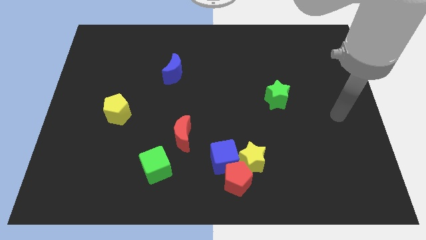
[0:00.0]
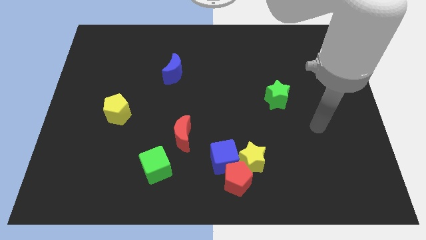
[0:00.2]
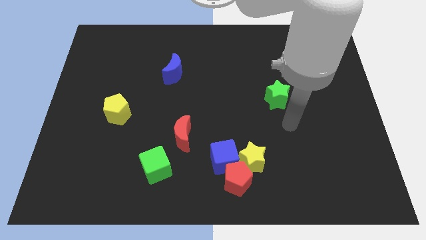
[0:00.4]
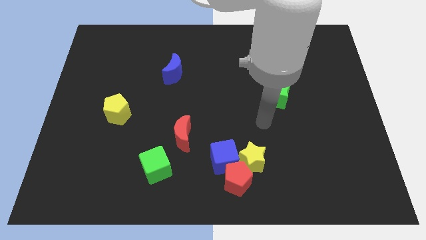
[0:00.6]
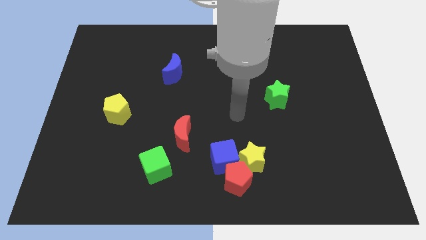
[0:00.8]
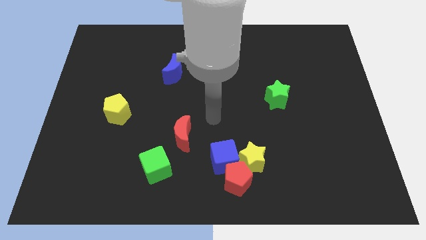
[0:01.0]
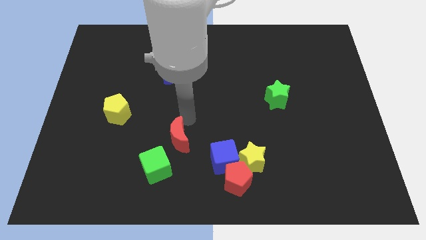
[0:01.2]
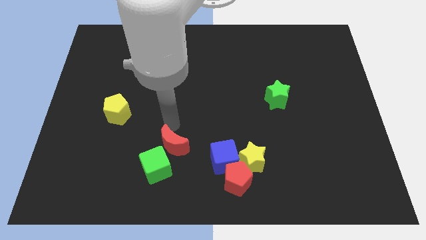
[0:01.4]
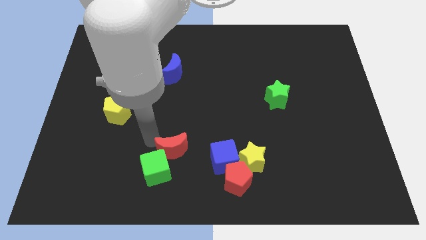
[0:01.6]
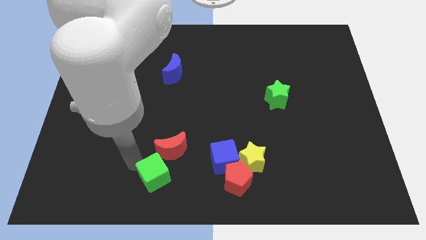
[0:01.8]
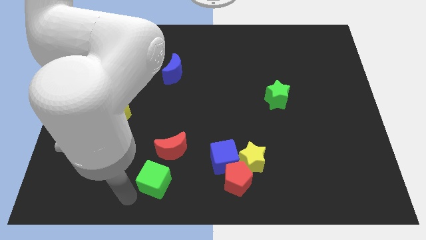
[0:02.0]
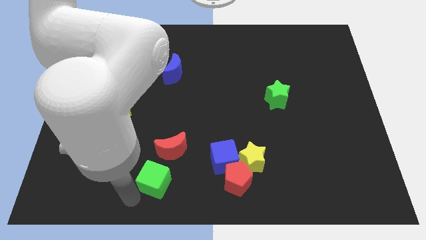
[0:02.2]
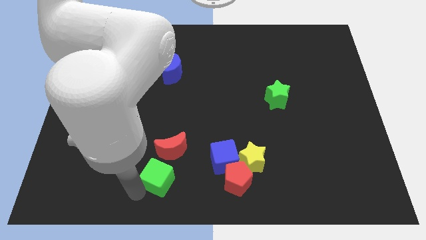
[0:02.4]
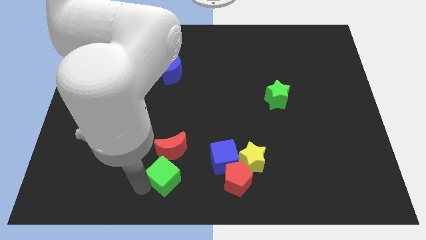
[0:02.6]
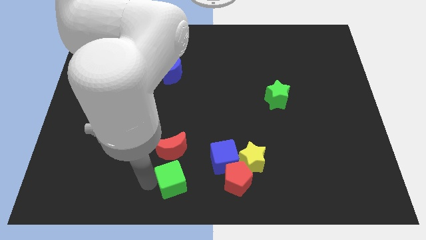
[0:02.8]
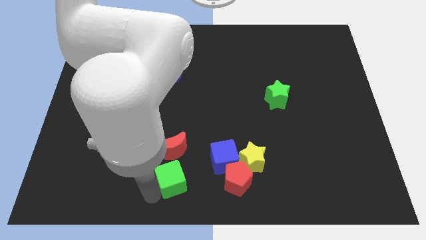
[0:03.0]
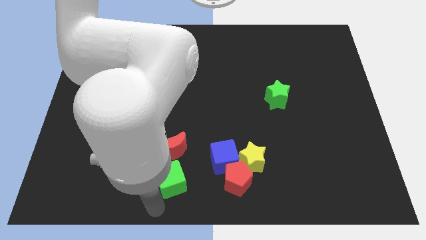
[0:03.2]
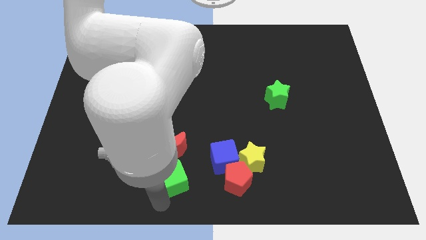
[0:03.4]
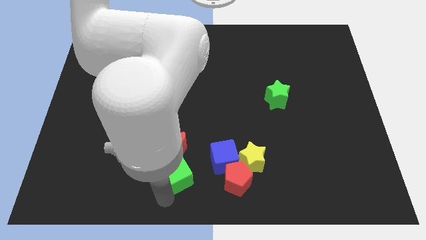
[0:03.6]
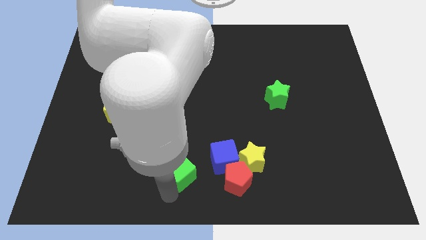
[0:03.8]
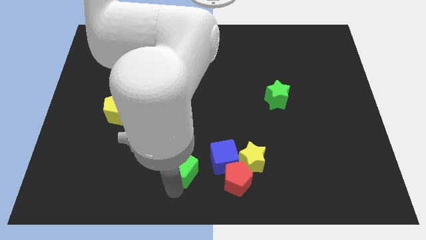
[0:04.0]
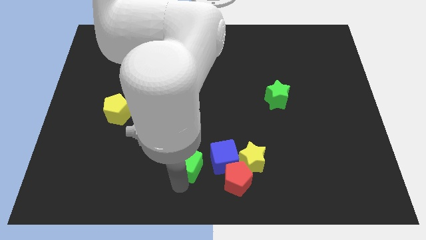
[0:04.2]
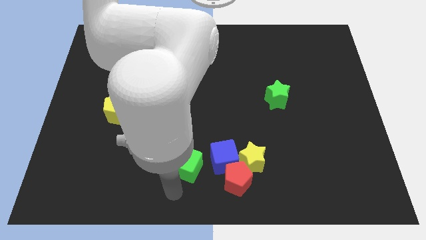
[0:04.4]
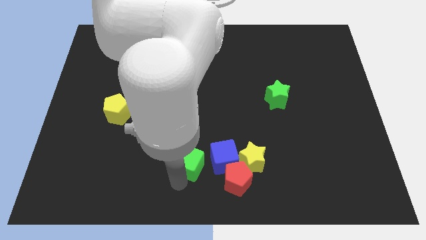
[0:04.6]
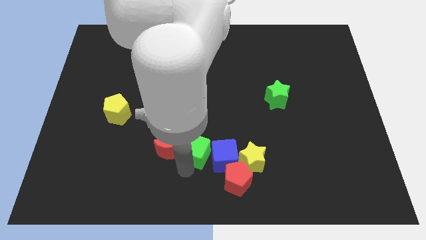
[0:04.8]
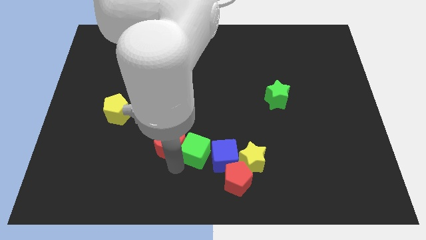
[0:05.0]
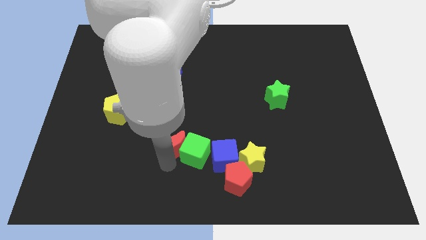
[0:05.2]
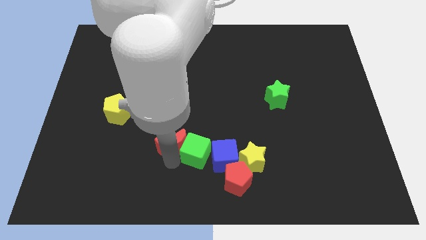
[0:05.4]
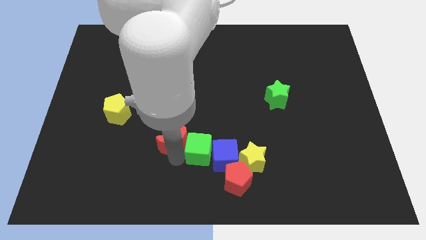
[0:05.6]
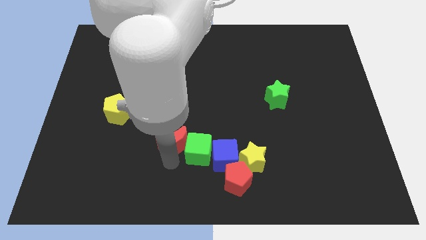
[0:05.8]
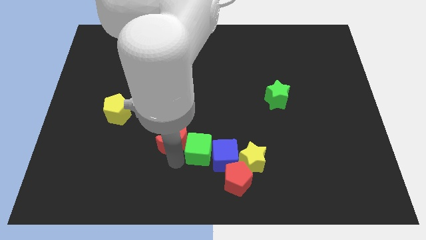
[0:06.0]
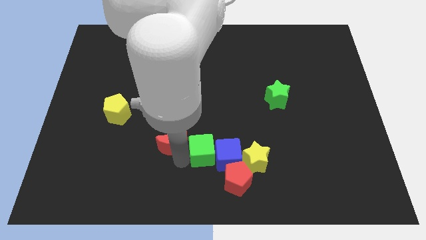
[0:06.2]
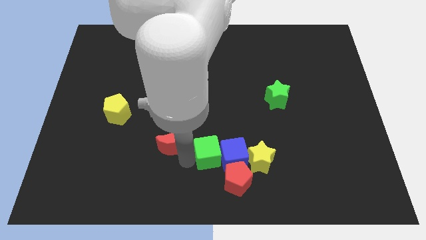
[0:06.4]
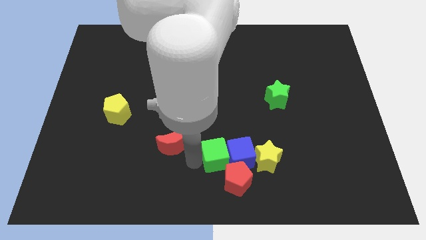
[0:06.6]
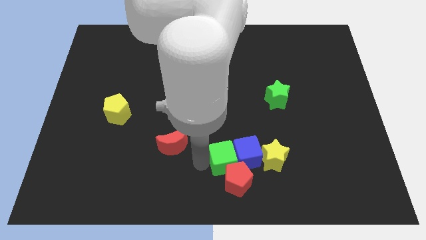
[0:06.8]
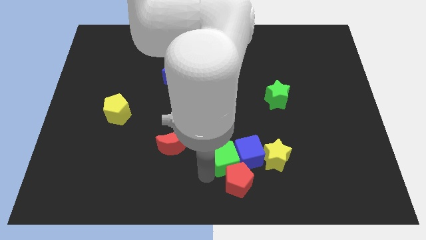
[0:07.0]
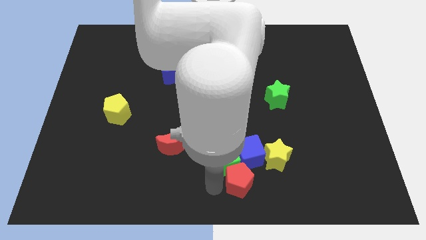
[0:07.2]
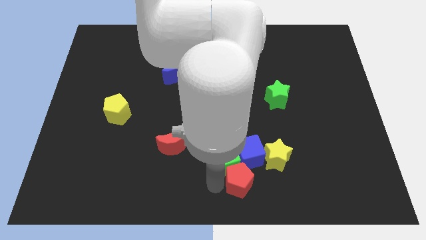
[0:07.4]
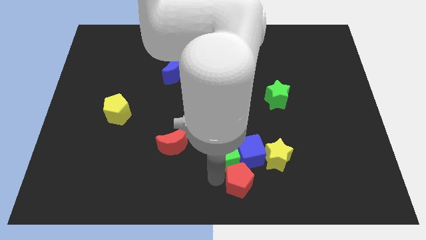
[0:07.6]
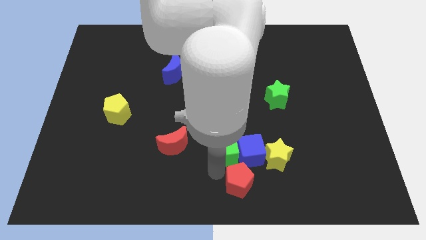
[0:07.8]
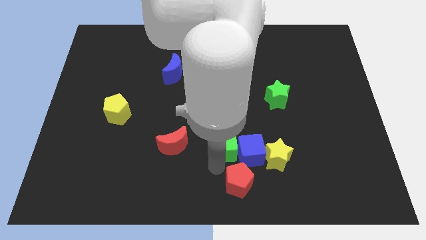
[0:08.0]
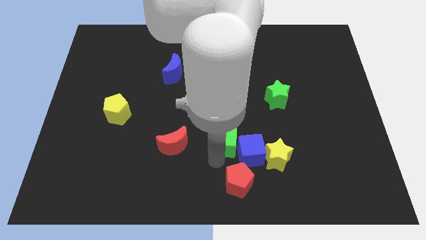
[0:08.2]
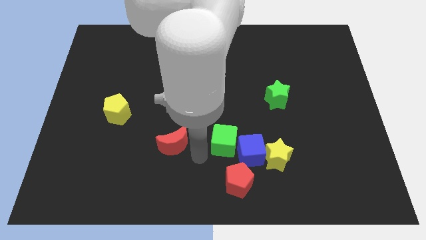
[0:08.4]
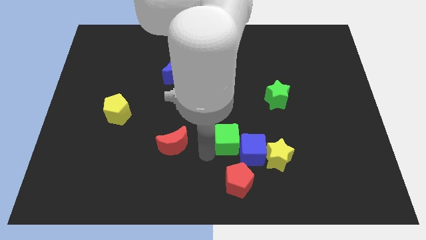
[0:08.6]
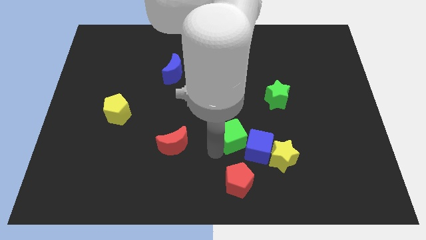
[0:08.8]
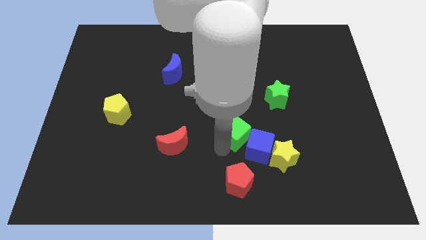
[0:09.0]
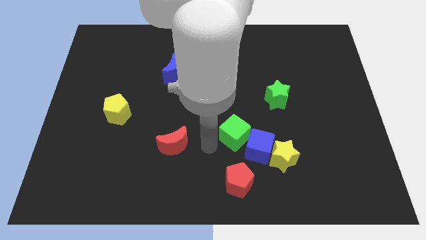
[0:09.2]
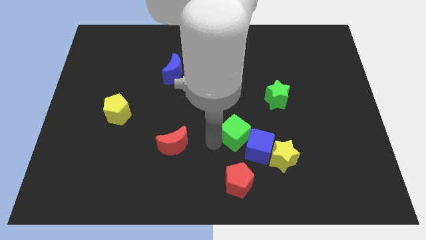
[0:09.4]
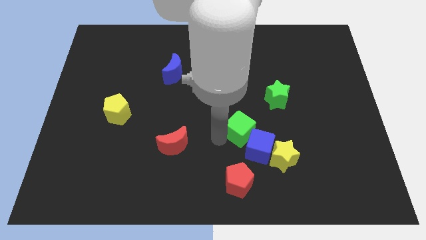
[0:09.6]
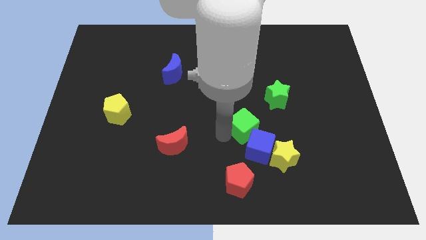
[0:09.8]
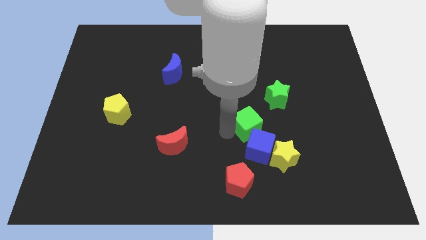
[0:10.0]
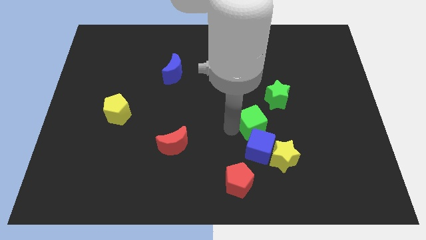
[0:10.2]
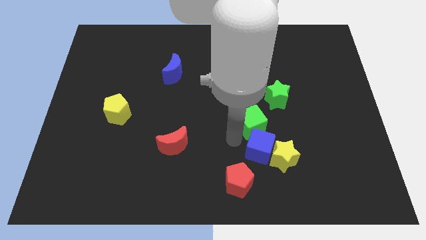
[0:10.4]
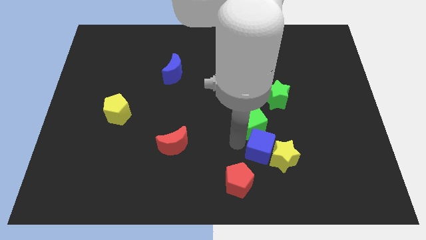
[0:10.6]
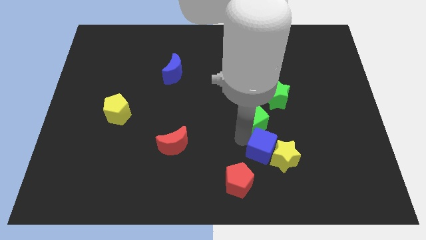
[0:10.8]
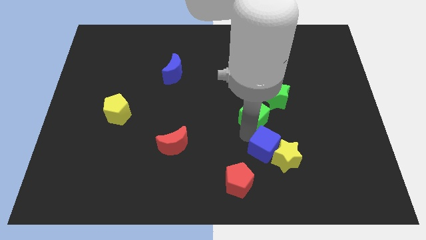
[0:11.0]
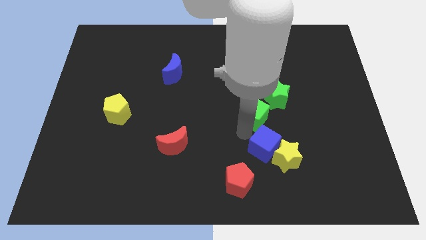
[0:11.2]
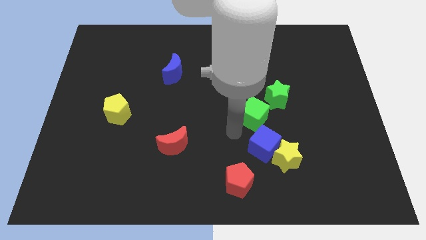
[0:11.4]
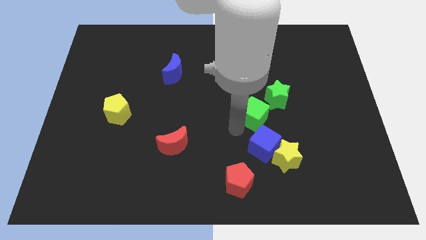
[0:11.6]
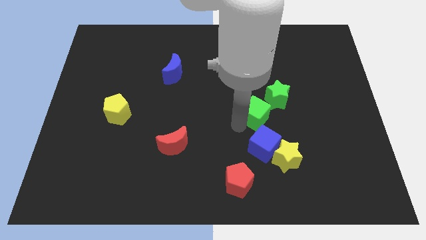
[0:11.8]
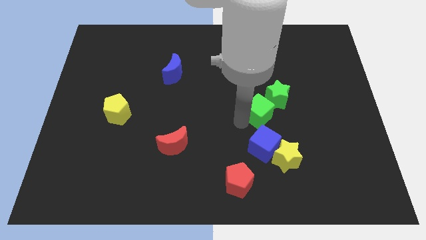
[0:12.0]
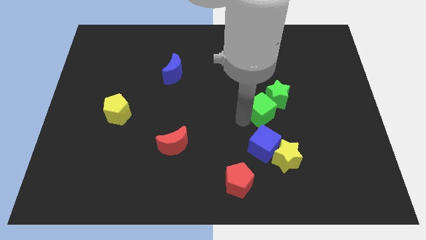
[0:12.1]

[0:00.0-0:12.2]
slide the green cube towards the green star
